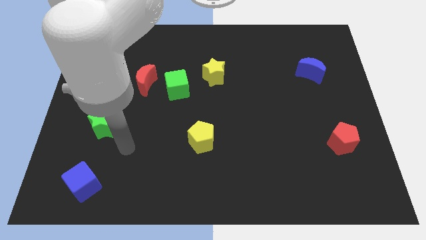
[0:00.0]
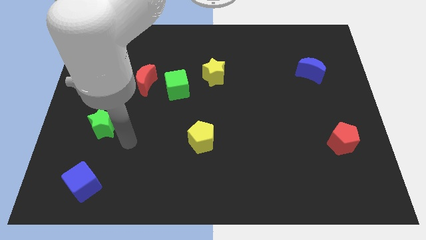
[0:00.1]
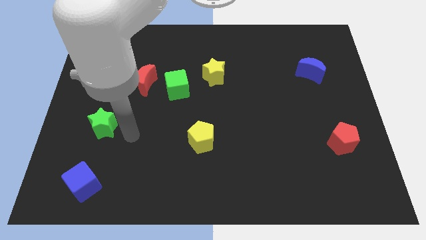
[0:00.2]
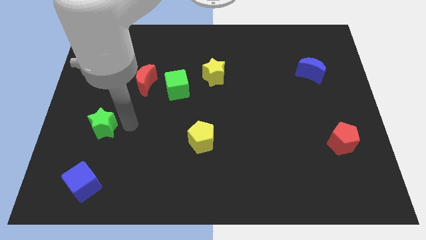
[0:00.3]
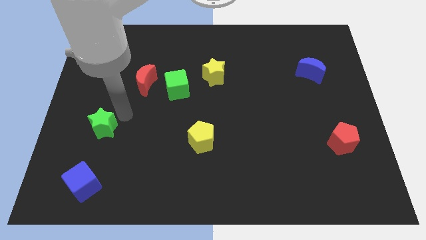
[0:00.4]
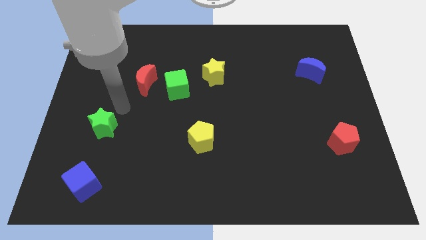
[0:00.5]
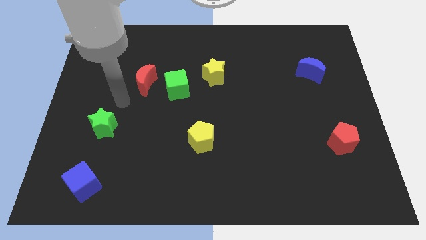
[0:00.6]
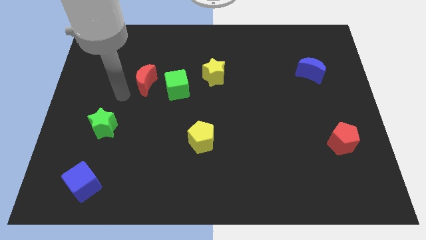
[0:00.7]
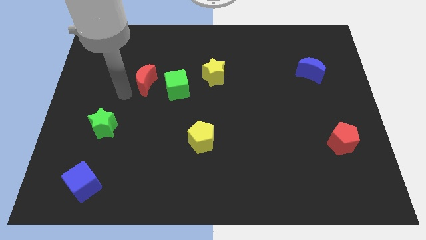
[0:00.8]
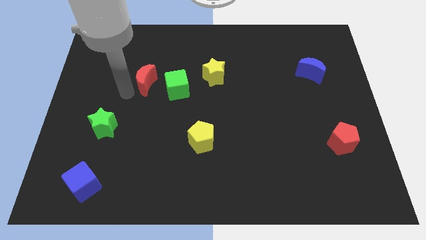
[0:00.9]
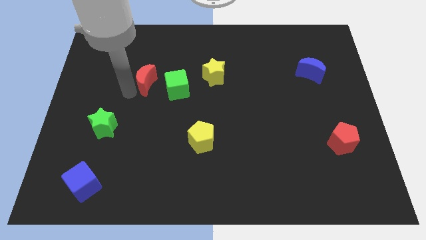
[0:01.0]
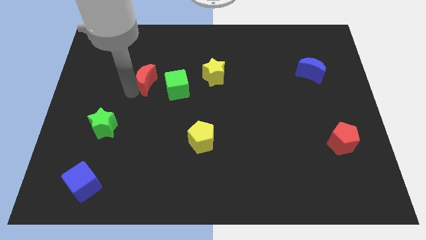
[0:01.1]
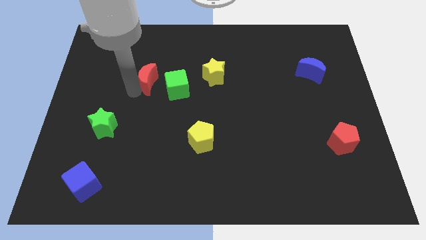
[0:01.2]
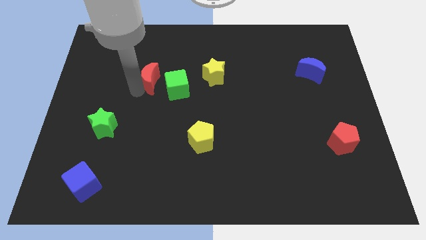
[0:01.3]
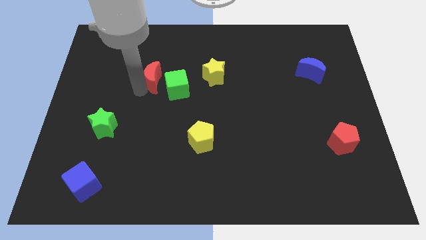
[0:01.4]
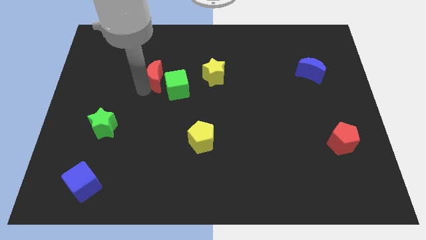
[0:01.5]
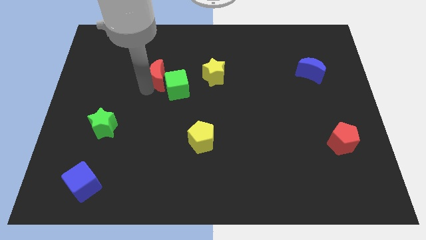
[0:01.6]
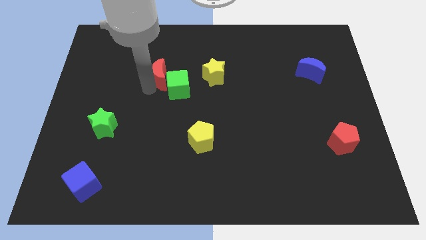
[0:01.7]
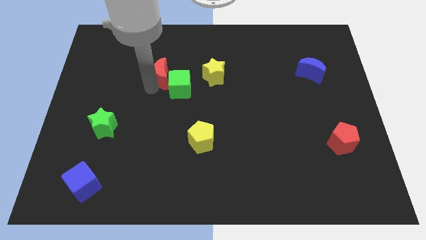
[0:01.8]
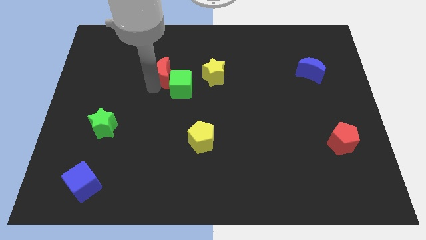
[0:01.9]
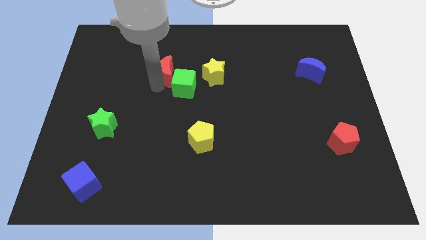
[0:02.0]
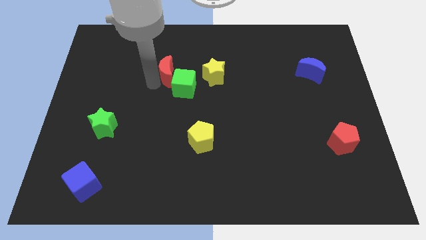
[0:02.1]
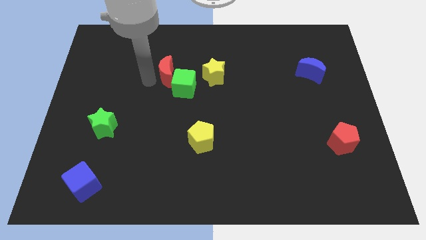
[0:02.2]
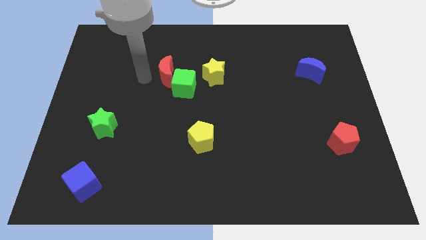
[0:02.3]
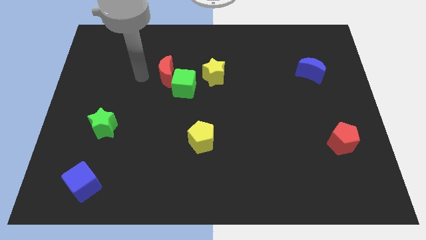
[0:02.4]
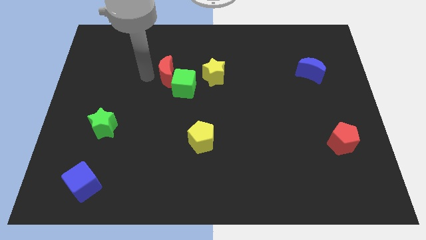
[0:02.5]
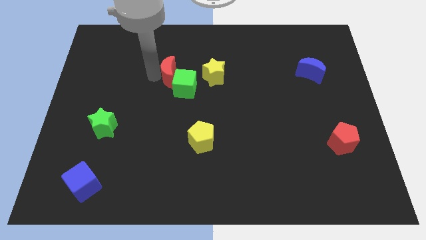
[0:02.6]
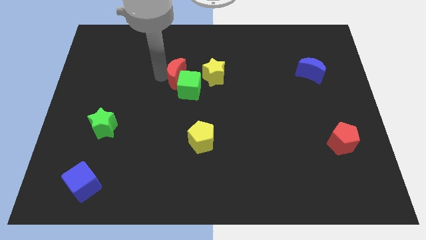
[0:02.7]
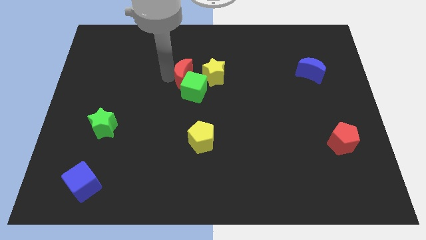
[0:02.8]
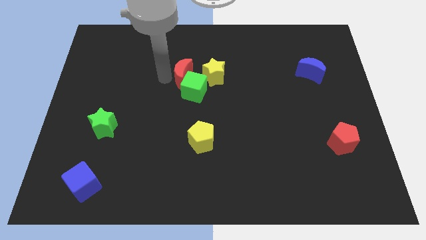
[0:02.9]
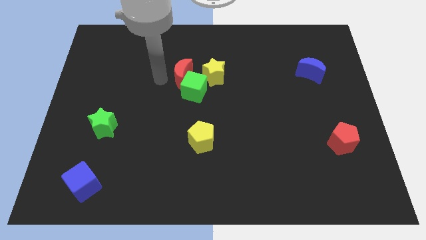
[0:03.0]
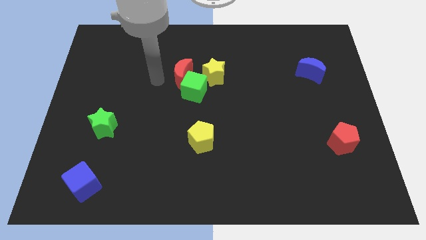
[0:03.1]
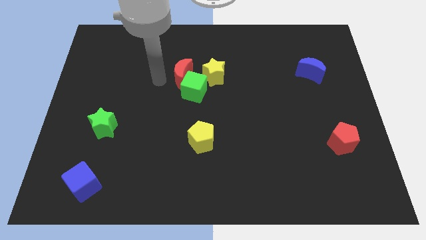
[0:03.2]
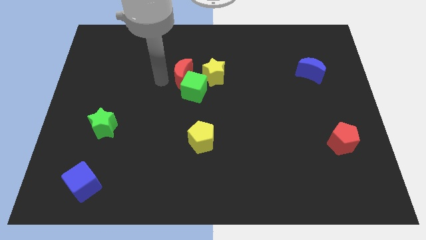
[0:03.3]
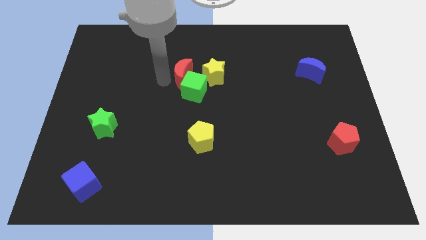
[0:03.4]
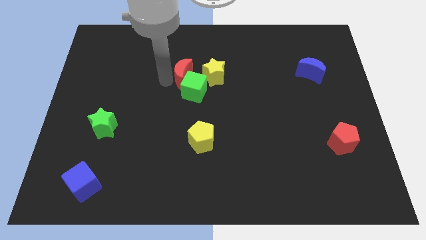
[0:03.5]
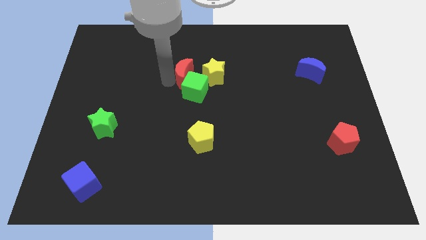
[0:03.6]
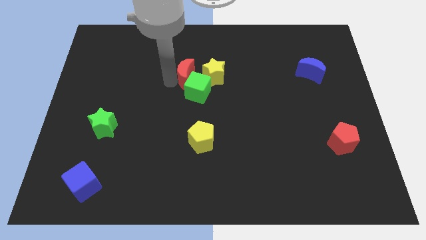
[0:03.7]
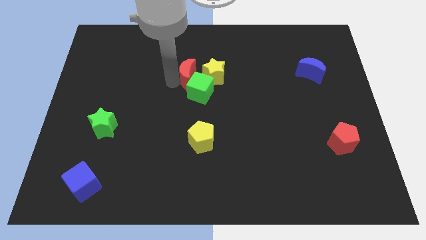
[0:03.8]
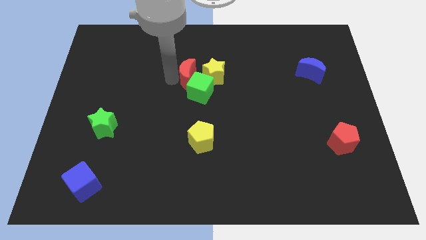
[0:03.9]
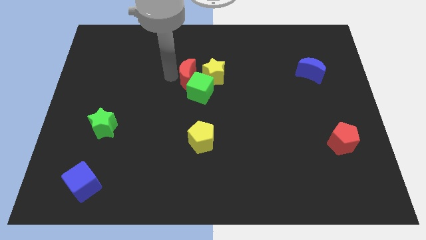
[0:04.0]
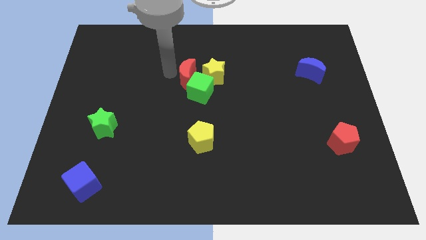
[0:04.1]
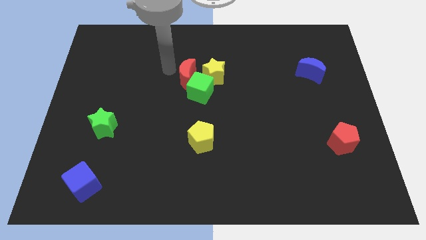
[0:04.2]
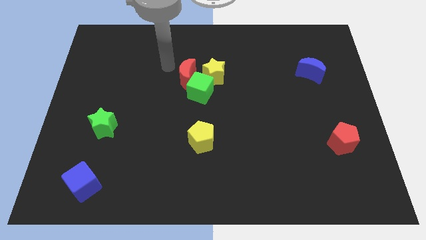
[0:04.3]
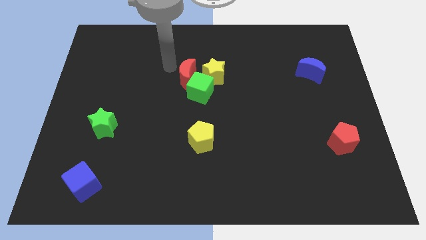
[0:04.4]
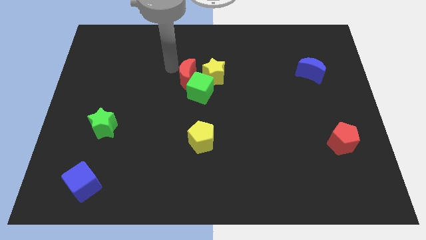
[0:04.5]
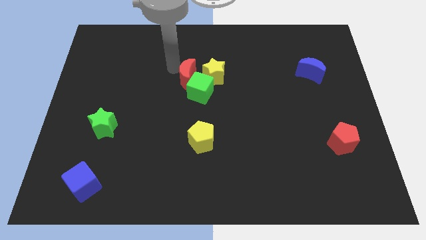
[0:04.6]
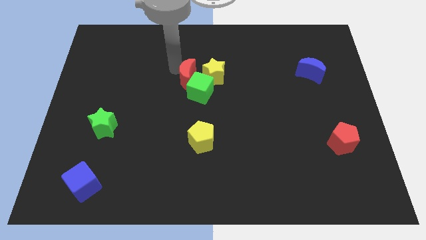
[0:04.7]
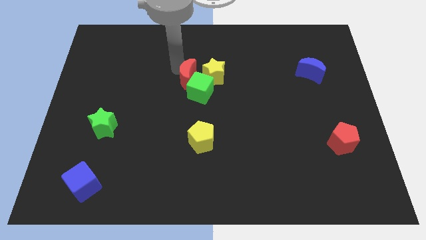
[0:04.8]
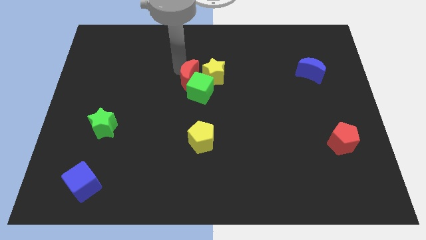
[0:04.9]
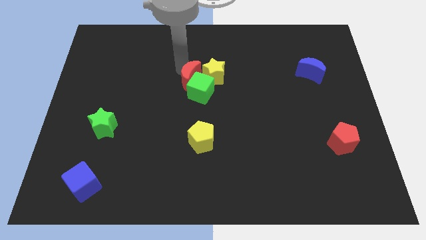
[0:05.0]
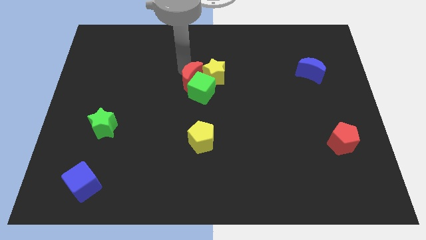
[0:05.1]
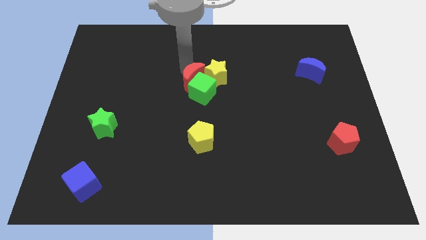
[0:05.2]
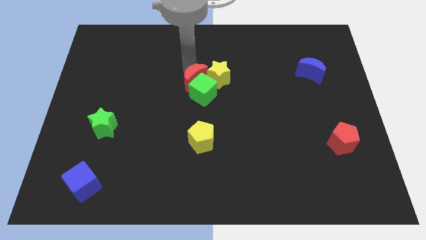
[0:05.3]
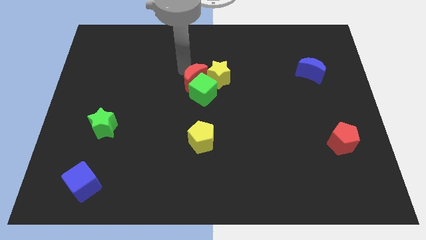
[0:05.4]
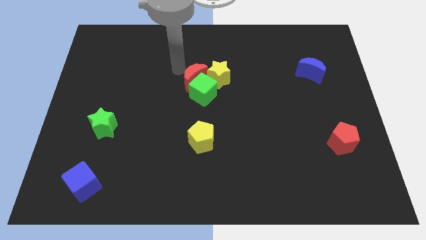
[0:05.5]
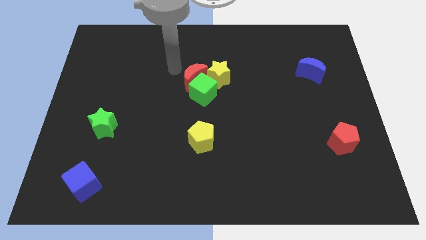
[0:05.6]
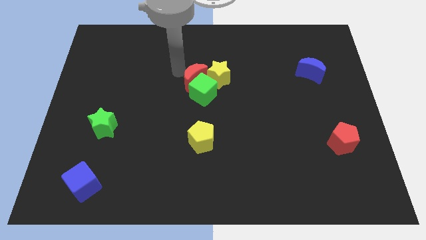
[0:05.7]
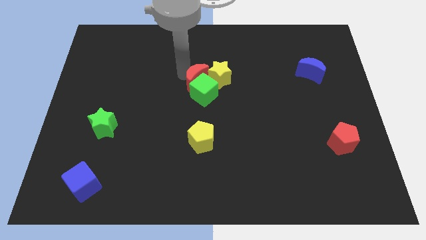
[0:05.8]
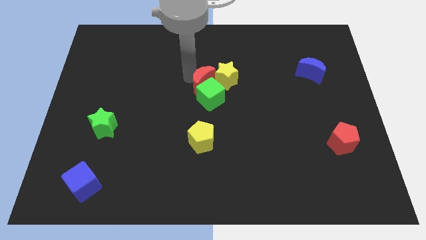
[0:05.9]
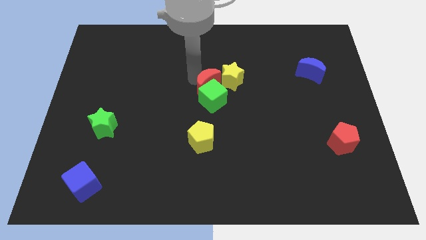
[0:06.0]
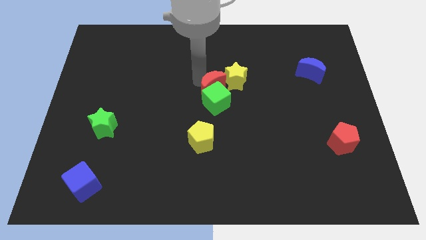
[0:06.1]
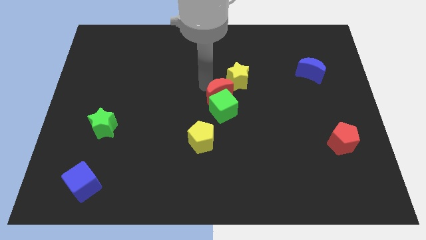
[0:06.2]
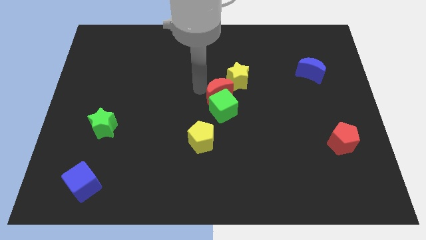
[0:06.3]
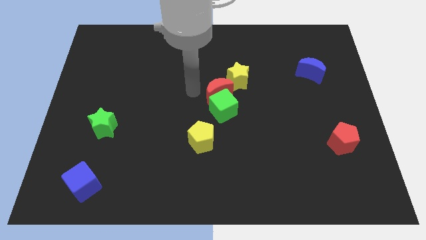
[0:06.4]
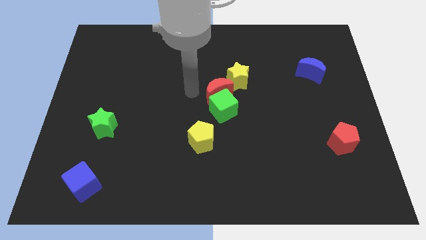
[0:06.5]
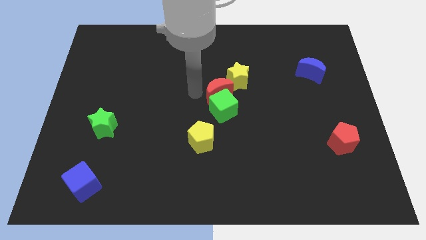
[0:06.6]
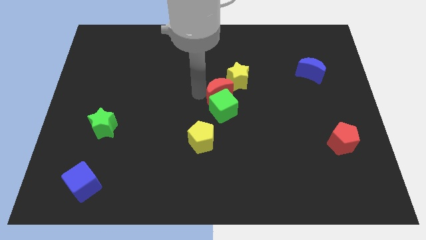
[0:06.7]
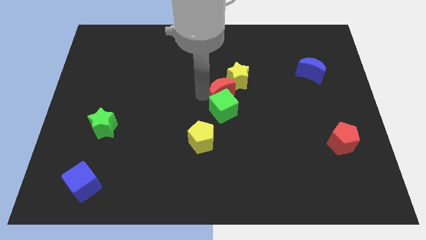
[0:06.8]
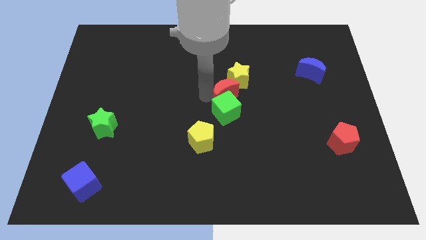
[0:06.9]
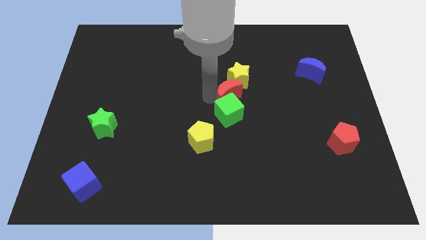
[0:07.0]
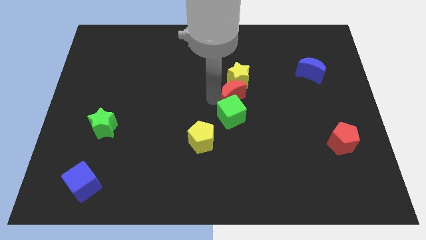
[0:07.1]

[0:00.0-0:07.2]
push the red moon to the bottom right of the yellow star
